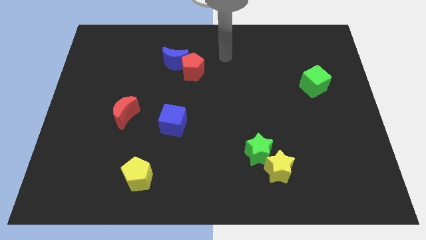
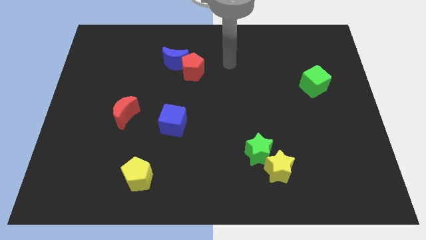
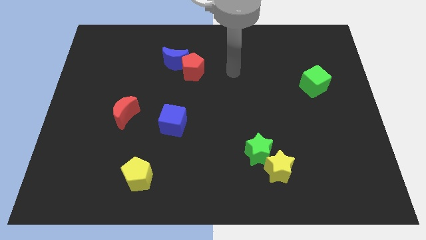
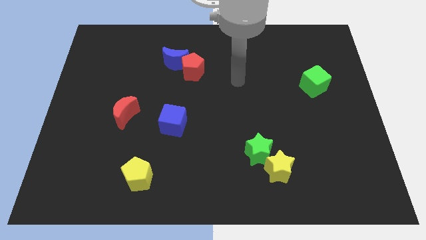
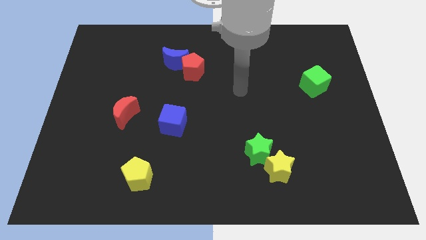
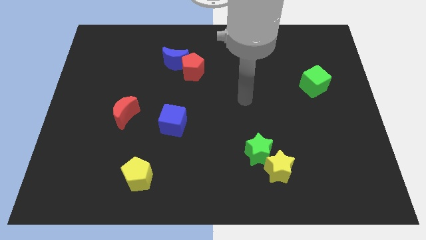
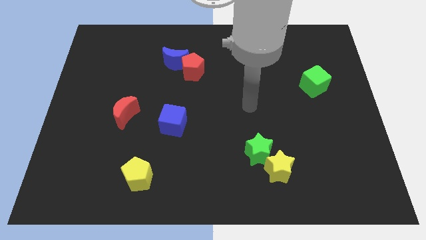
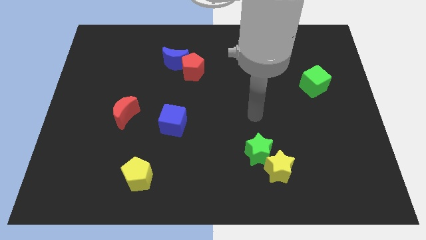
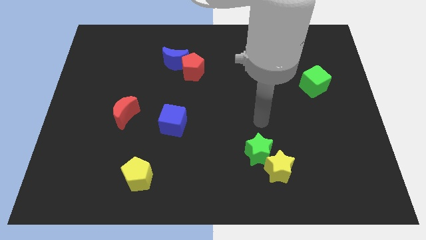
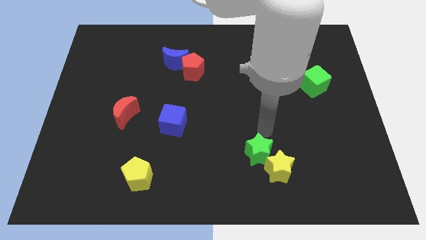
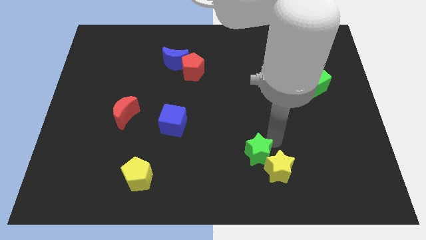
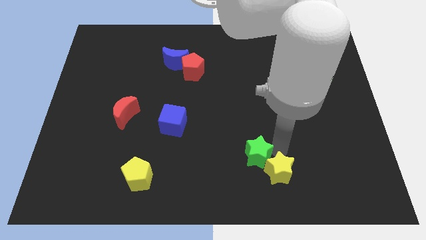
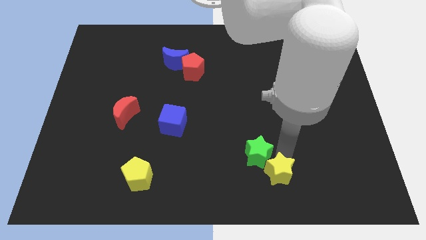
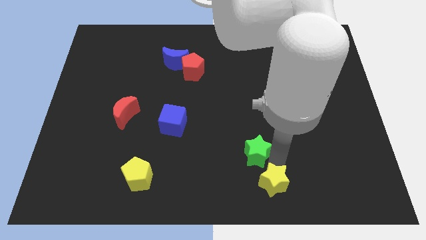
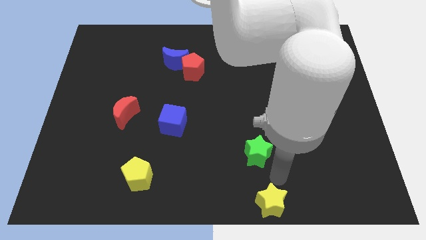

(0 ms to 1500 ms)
move the green star away from the yellow star

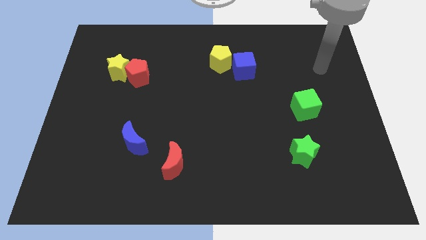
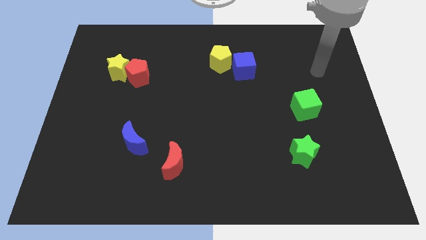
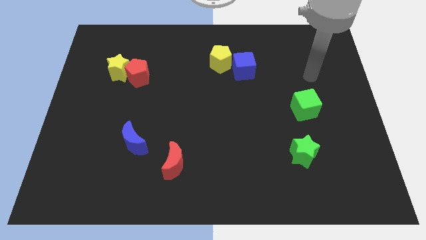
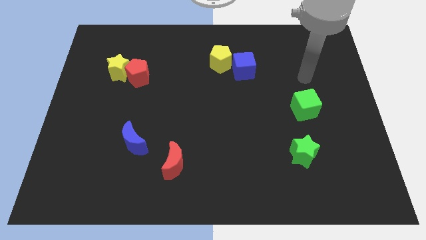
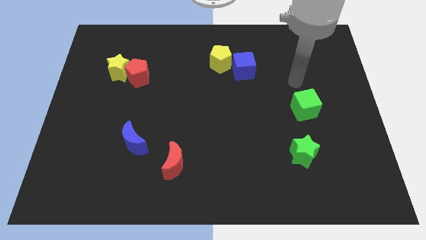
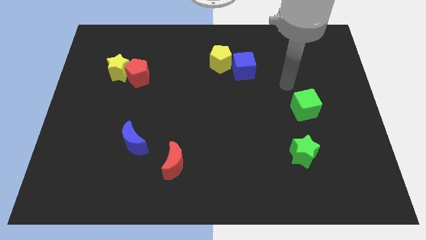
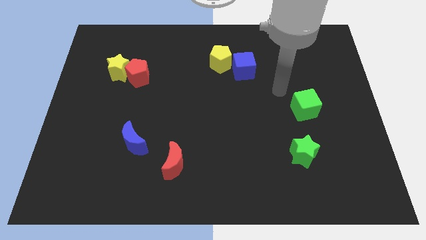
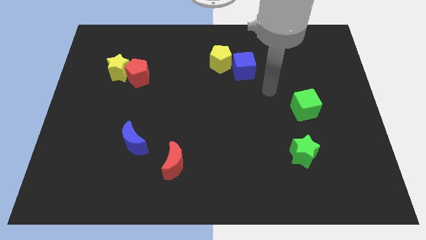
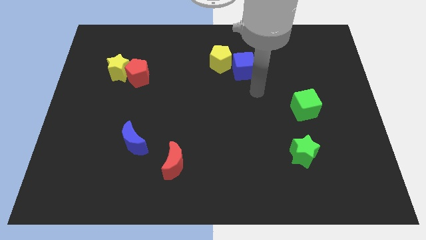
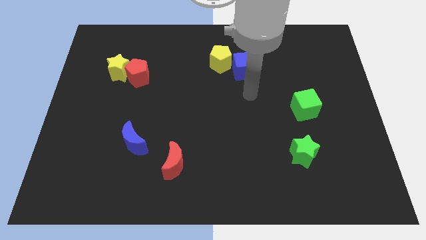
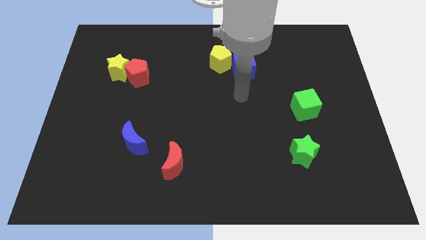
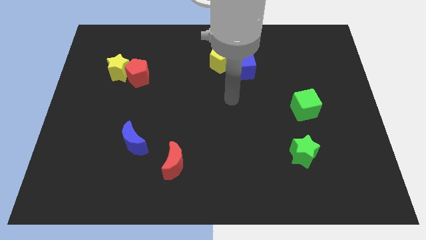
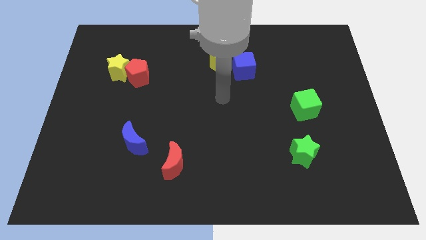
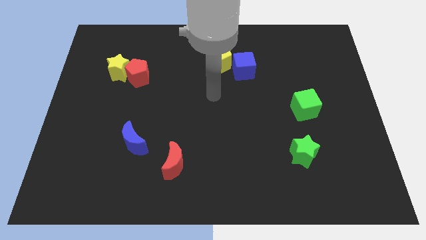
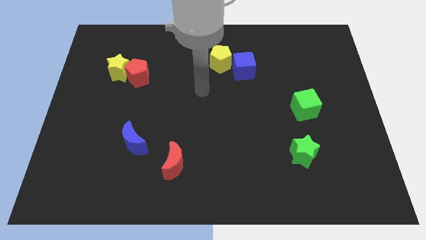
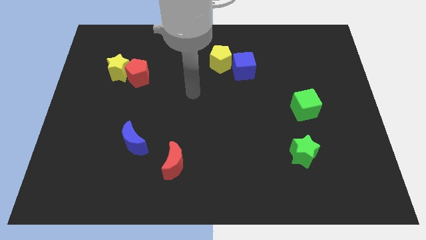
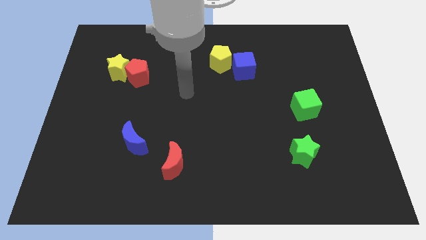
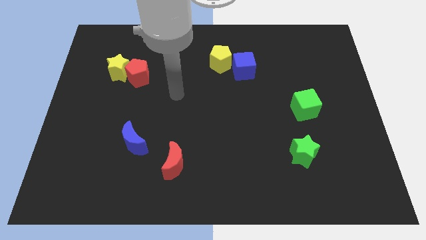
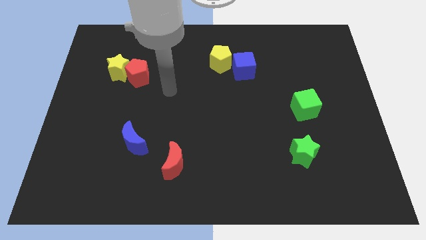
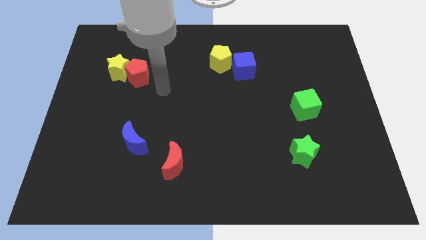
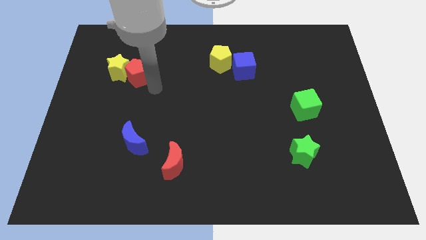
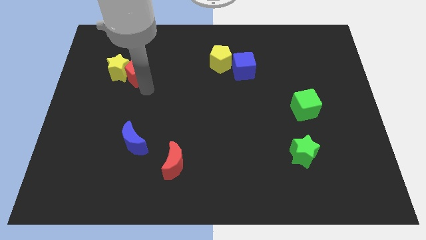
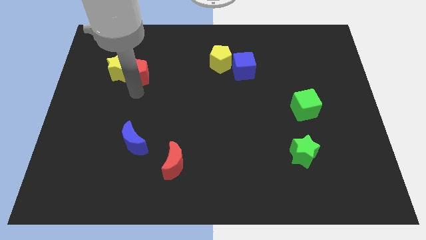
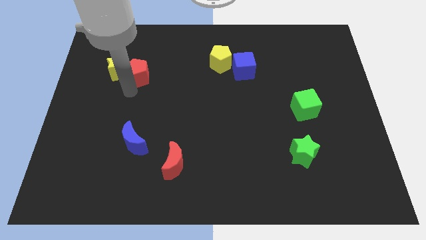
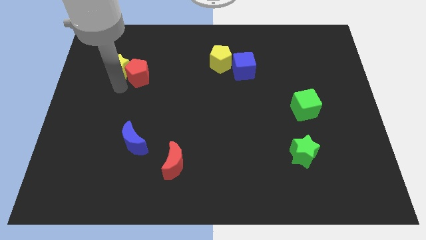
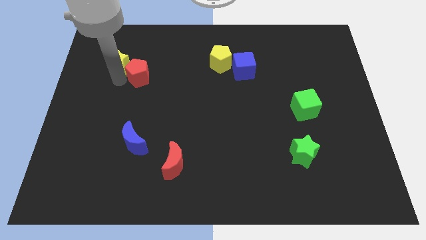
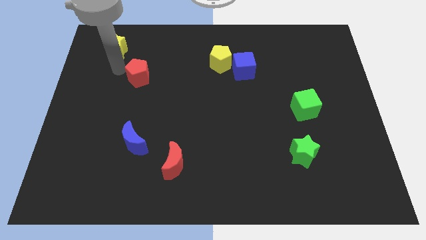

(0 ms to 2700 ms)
separate the red pentagon from the yellow star

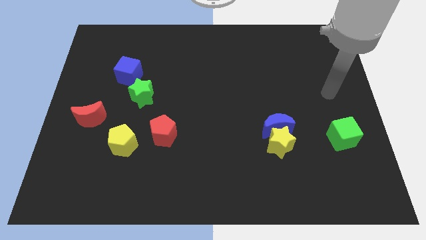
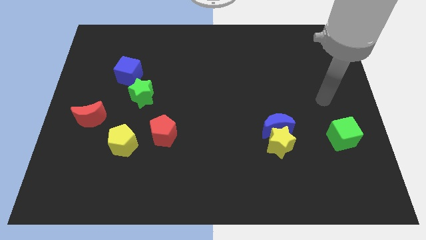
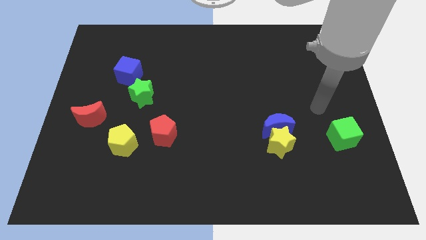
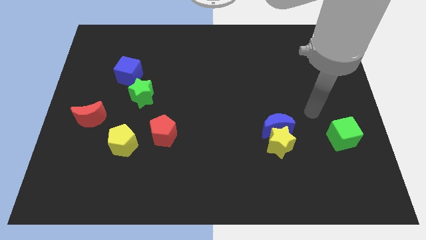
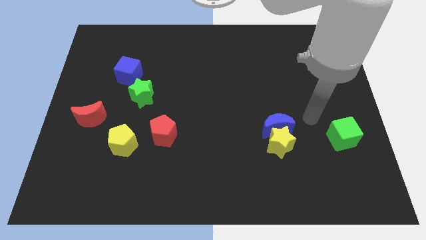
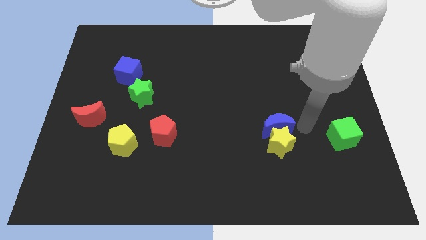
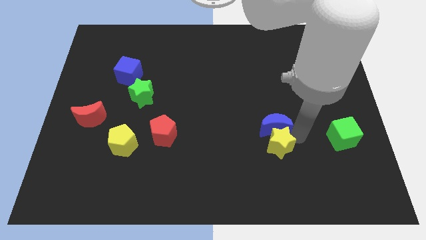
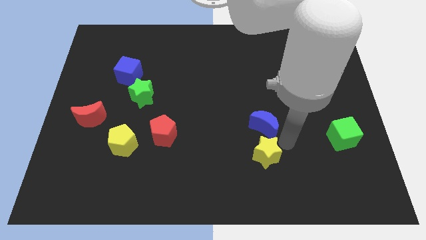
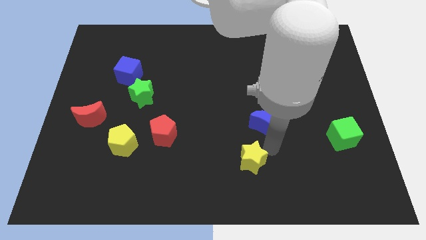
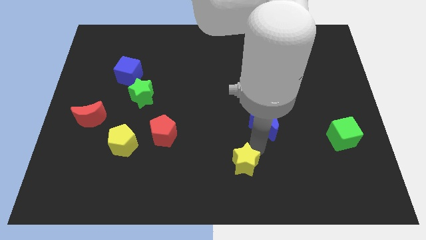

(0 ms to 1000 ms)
separate the blue moon from the yellow star

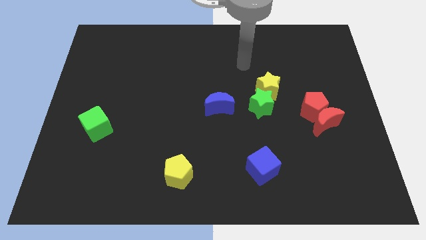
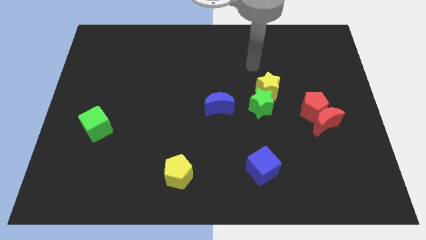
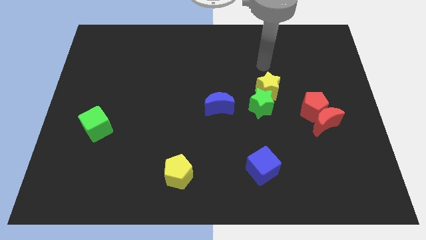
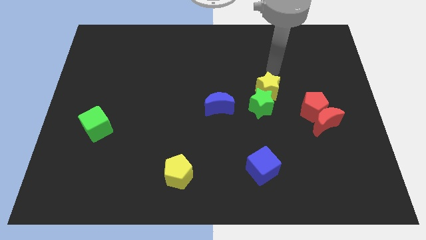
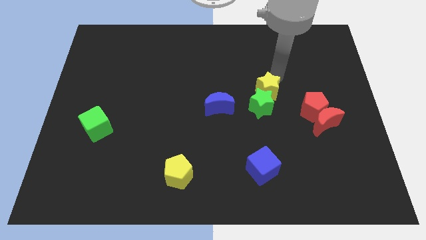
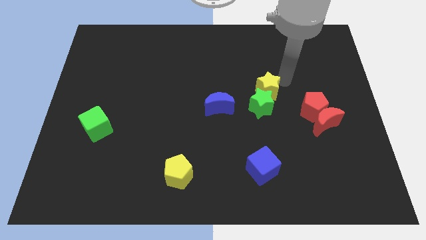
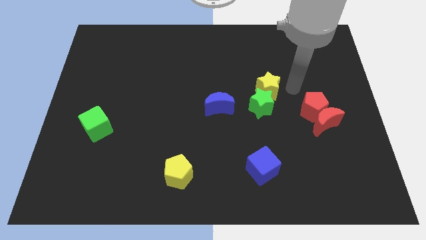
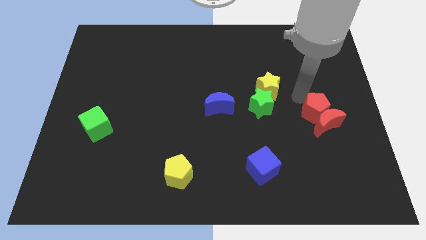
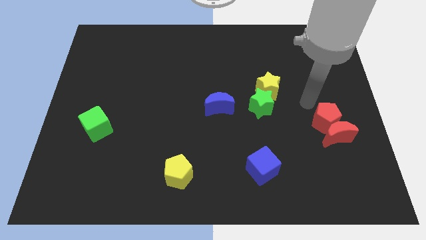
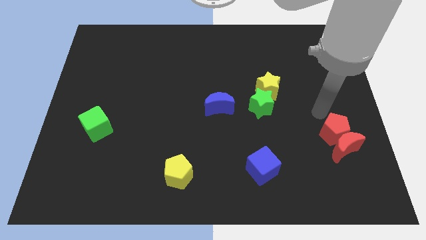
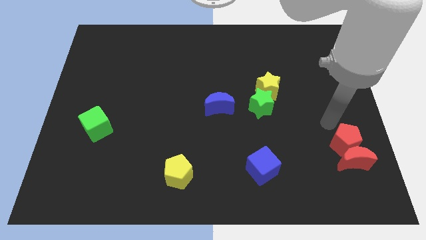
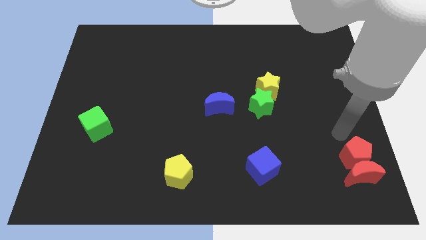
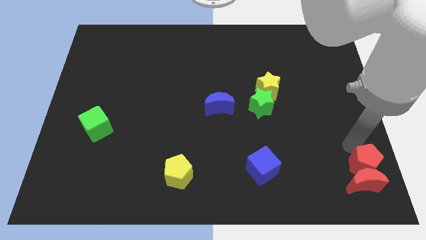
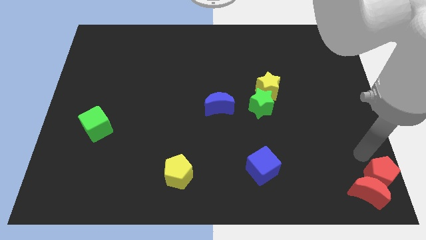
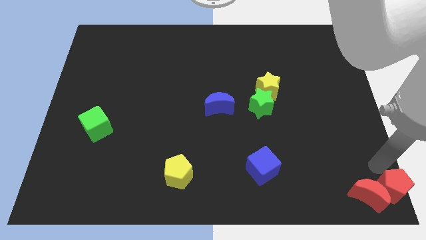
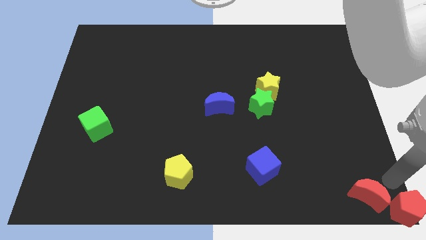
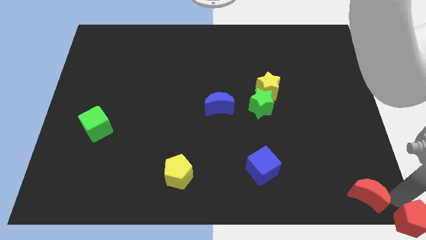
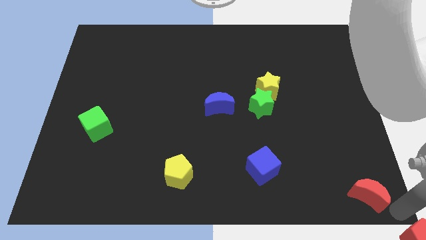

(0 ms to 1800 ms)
move the red moon away from the red pentagon

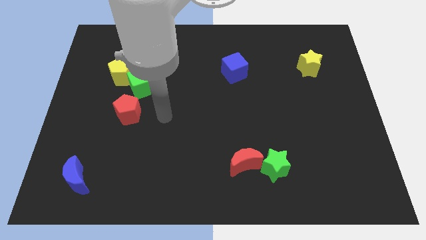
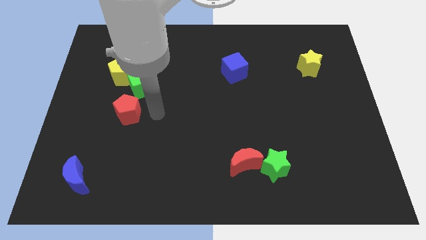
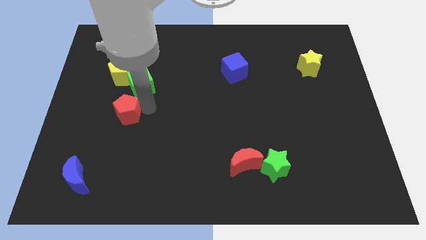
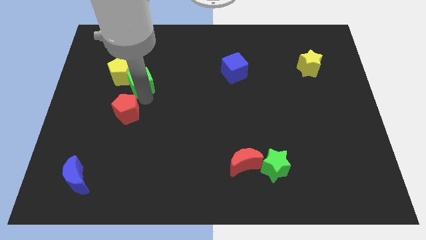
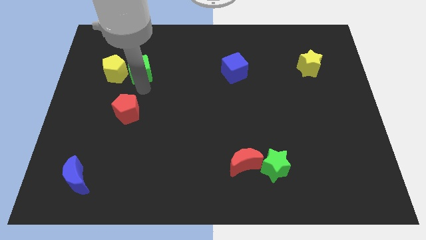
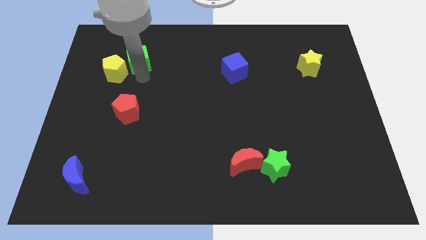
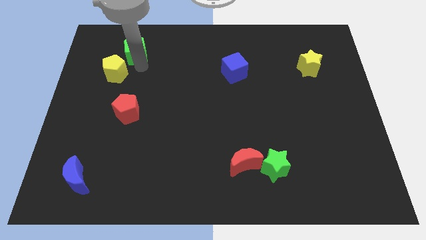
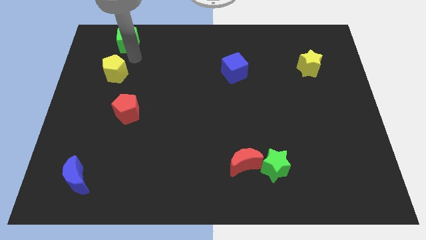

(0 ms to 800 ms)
pull the yellow pentagon apart from the green cube

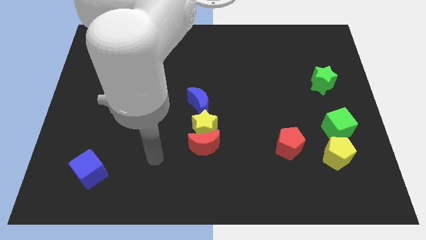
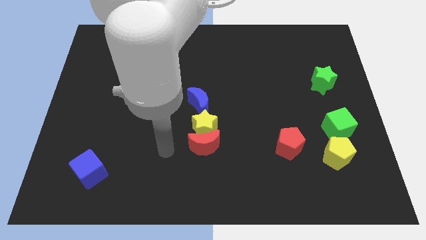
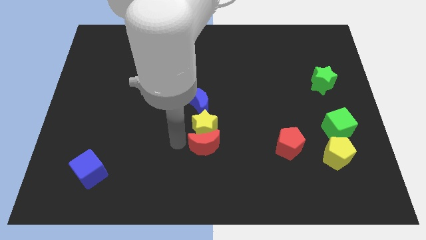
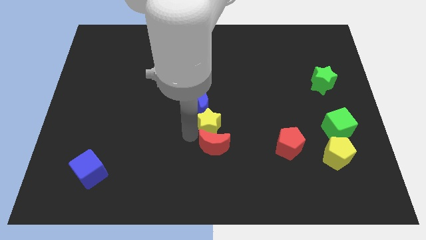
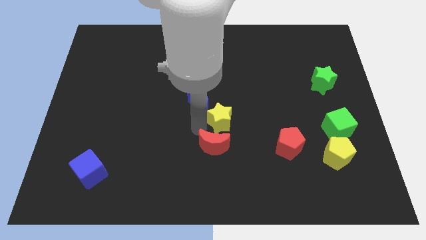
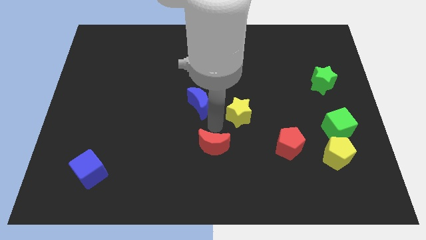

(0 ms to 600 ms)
move the red moon away from the yellow star

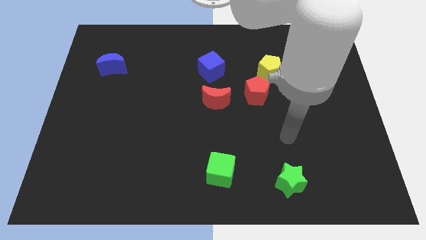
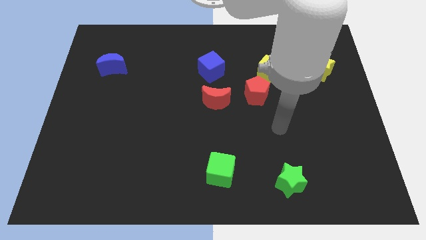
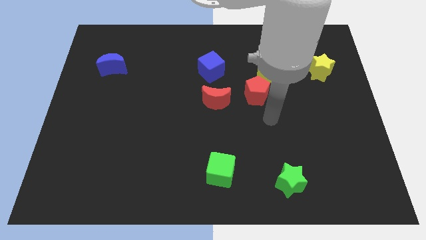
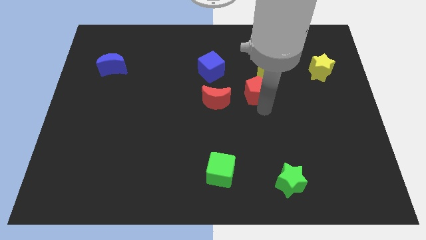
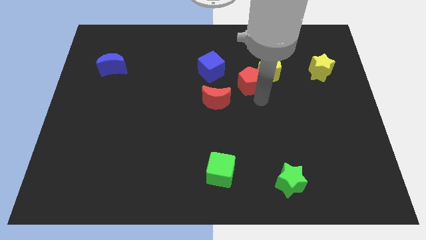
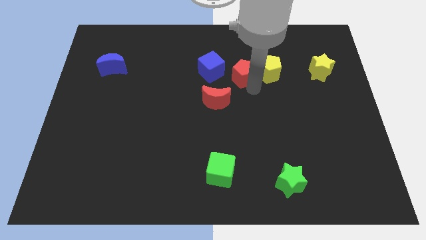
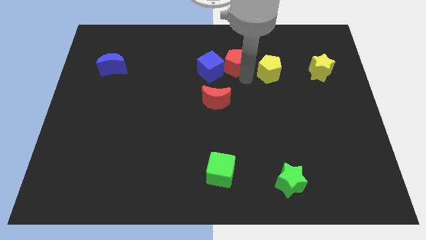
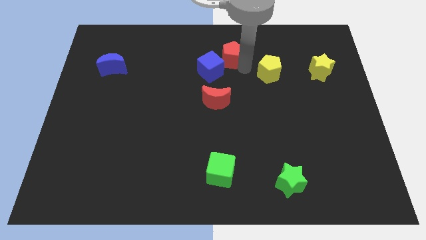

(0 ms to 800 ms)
separate the yellow pentagon from the red pentagon
